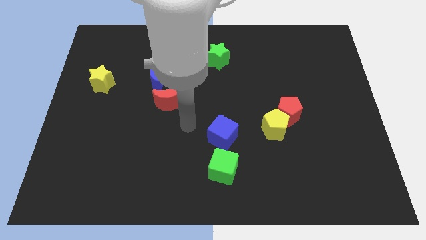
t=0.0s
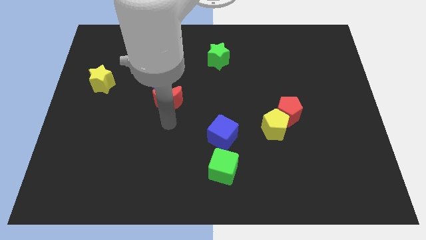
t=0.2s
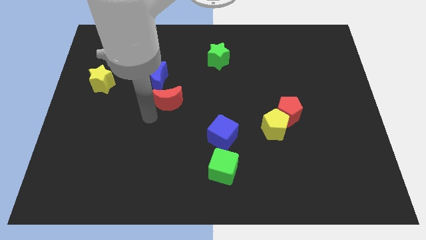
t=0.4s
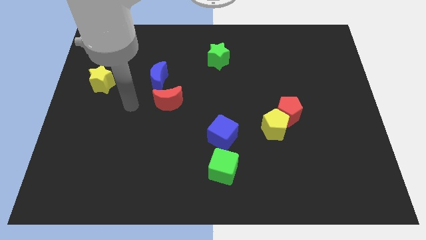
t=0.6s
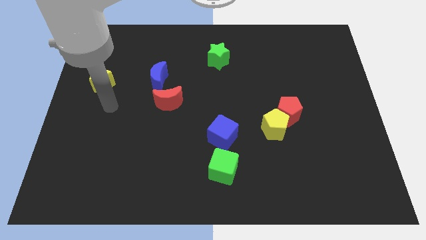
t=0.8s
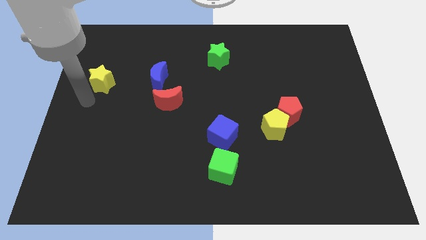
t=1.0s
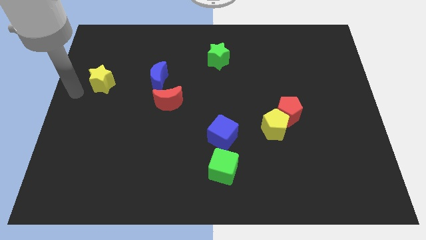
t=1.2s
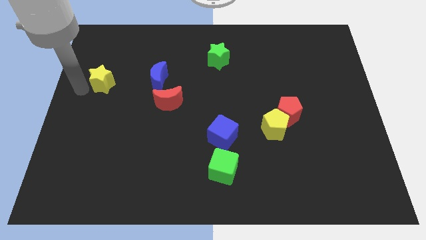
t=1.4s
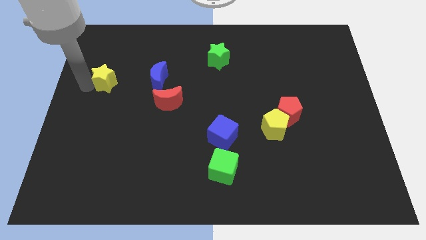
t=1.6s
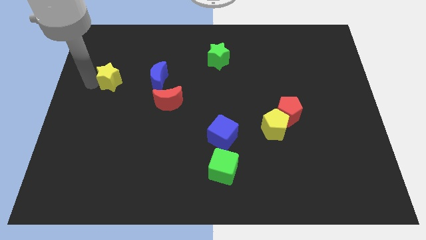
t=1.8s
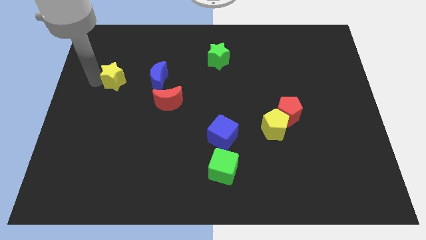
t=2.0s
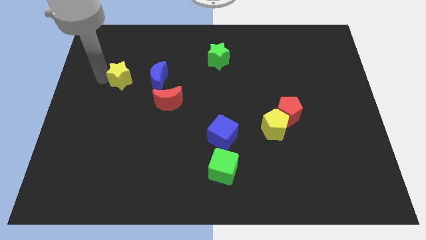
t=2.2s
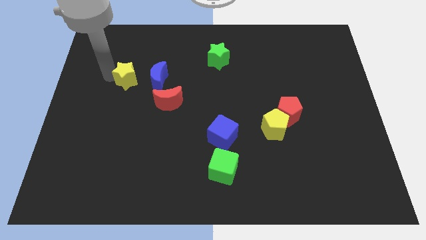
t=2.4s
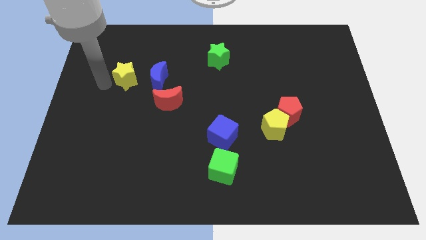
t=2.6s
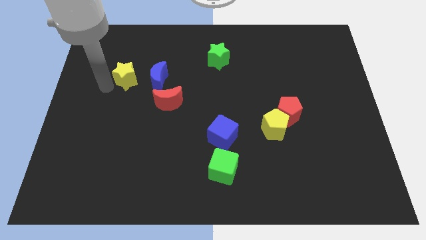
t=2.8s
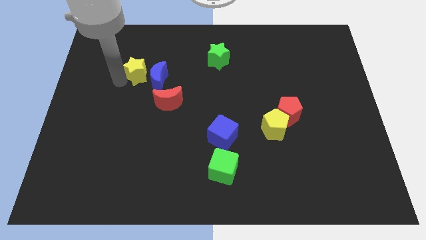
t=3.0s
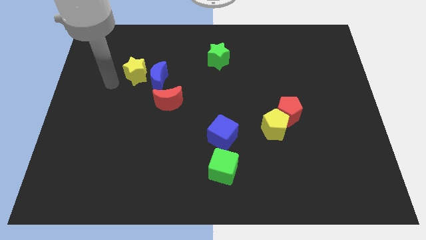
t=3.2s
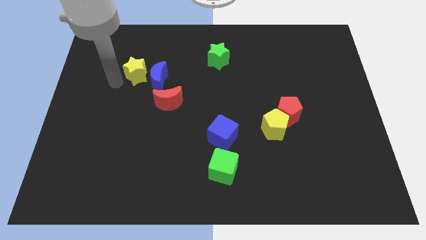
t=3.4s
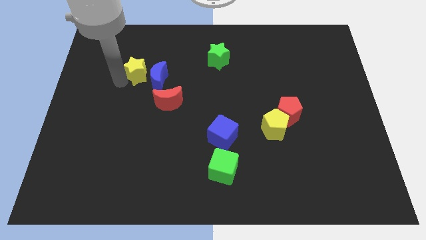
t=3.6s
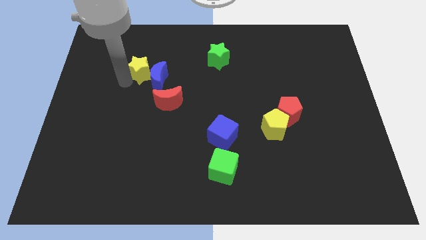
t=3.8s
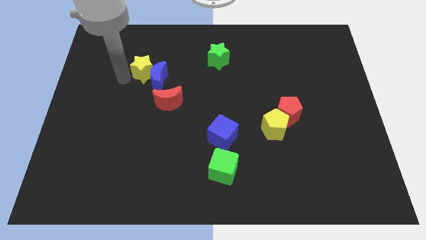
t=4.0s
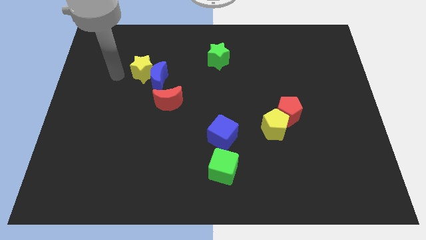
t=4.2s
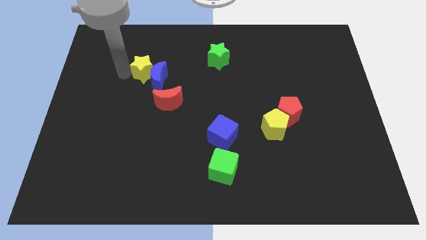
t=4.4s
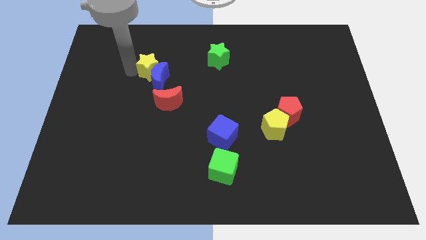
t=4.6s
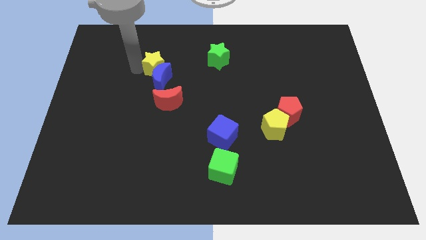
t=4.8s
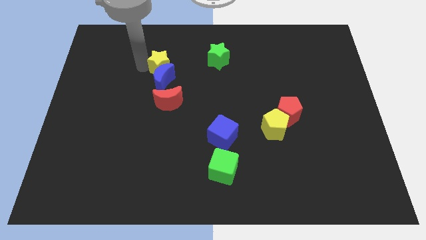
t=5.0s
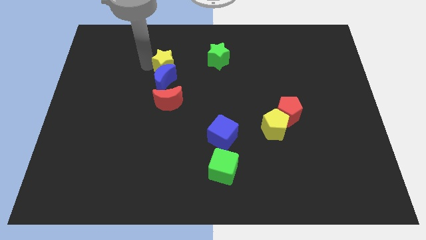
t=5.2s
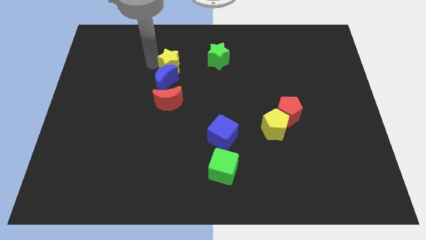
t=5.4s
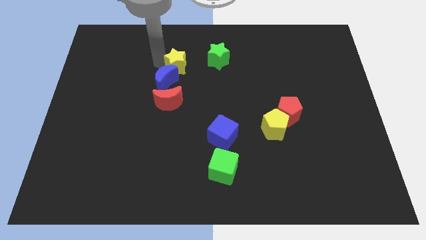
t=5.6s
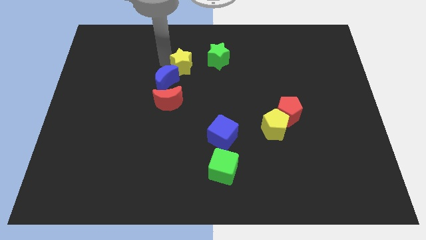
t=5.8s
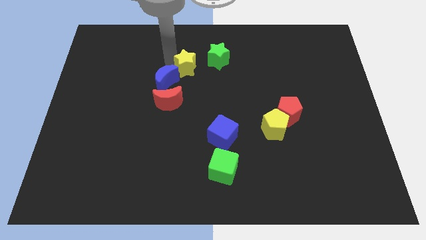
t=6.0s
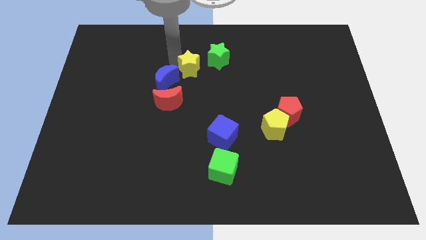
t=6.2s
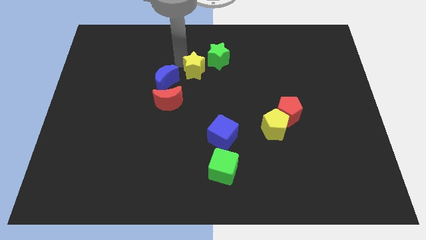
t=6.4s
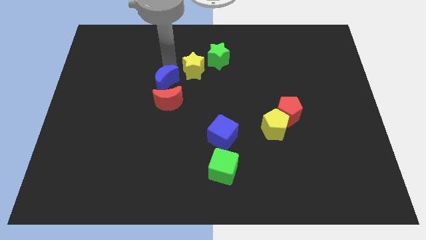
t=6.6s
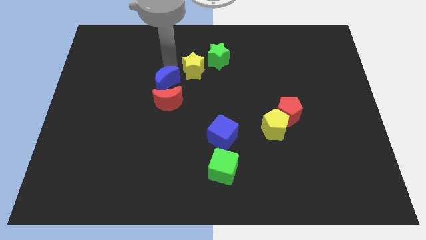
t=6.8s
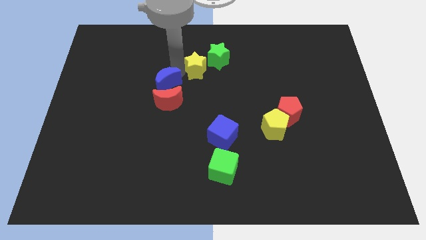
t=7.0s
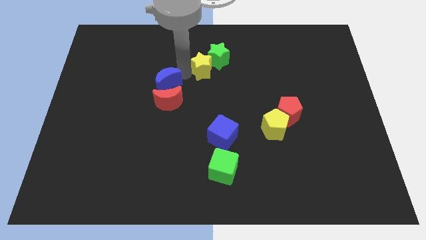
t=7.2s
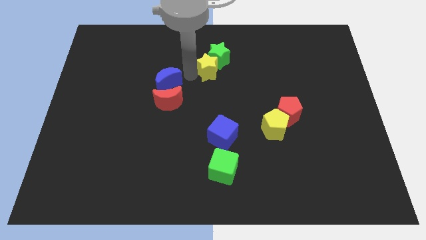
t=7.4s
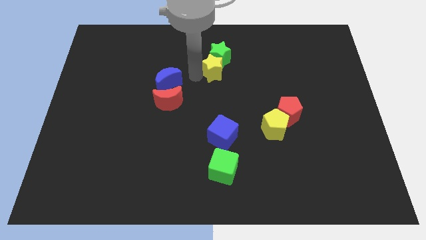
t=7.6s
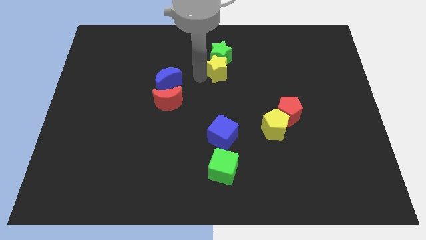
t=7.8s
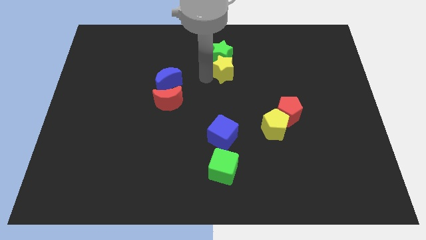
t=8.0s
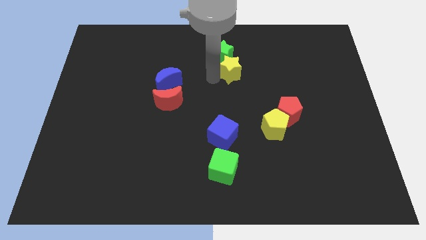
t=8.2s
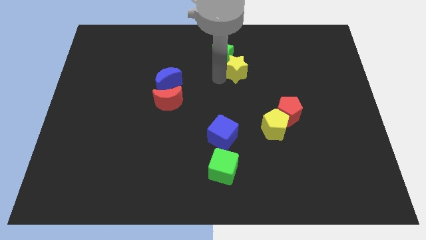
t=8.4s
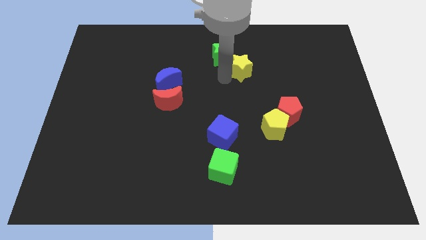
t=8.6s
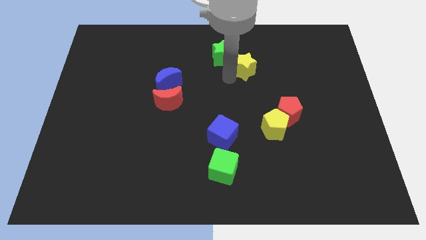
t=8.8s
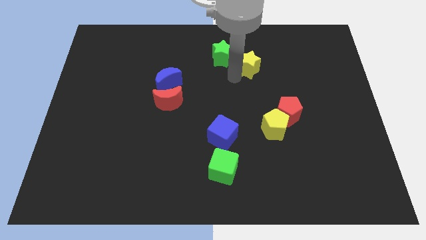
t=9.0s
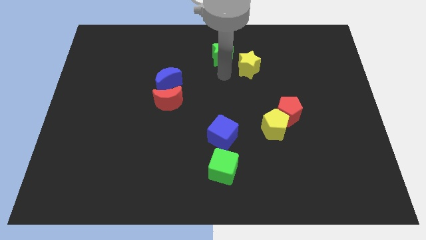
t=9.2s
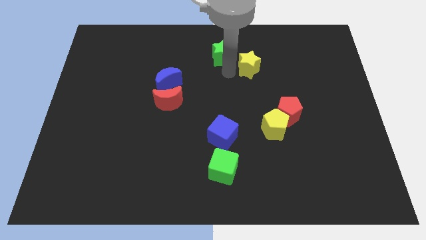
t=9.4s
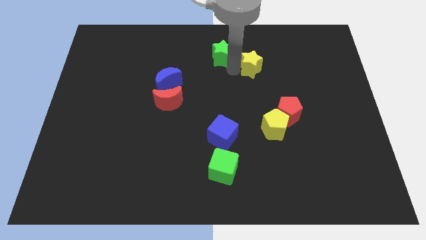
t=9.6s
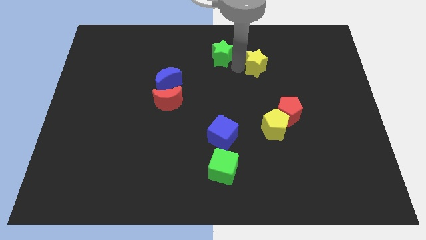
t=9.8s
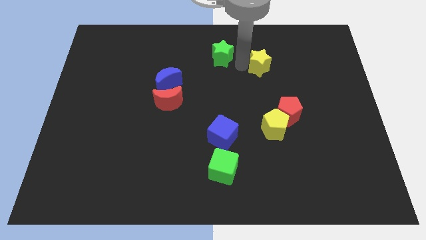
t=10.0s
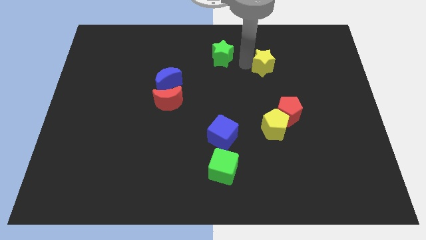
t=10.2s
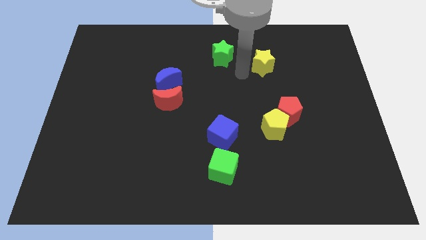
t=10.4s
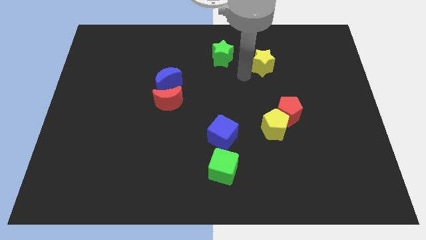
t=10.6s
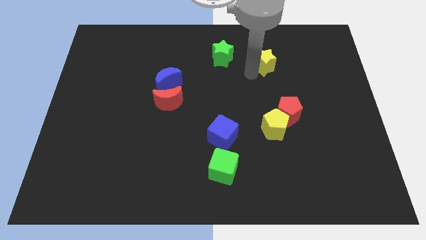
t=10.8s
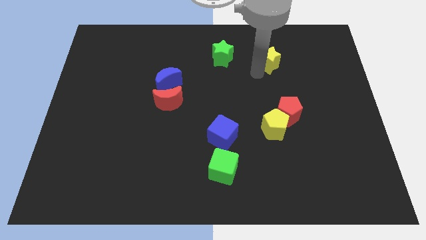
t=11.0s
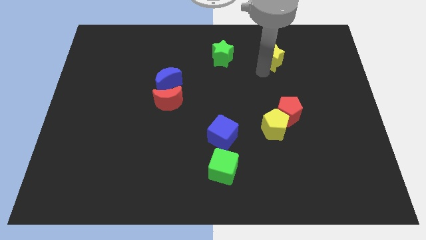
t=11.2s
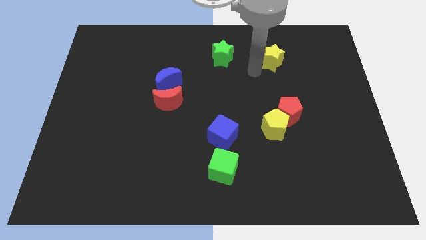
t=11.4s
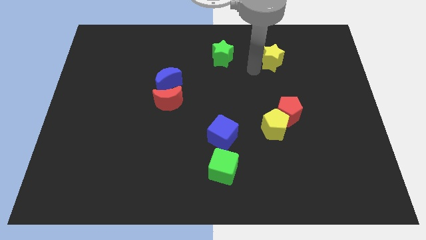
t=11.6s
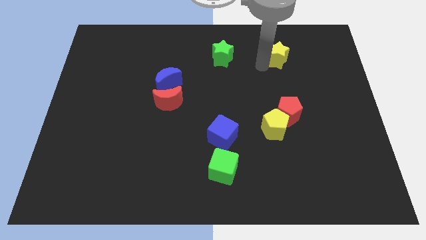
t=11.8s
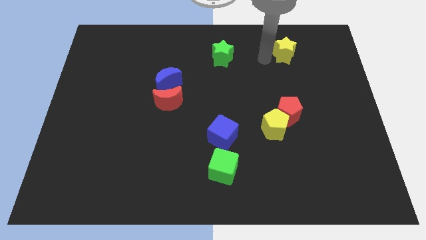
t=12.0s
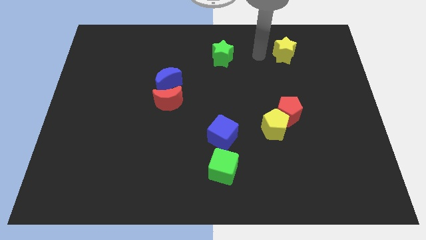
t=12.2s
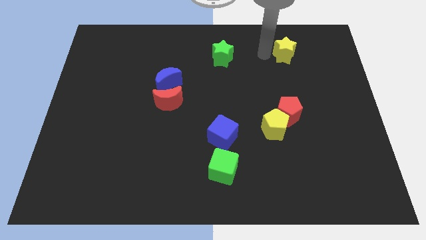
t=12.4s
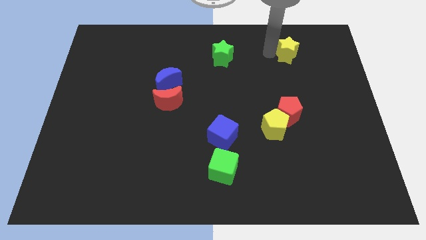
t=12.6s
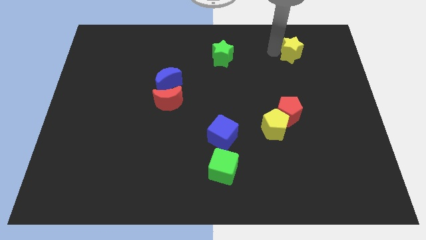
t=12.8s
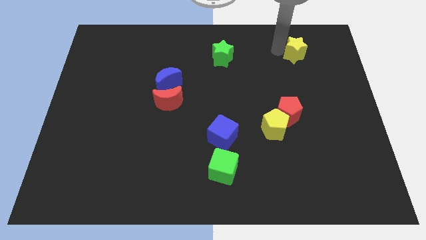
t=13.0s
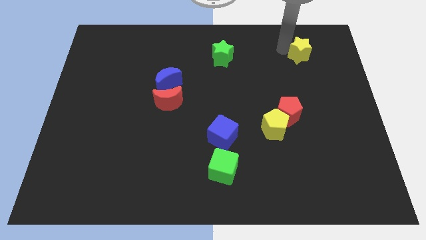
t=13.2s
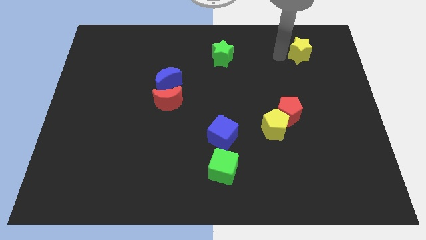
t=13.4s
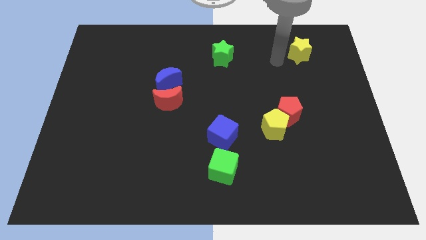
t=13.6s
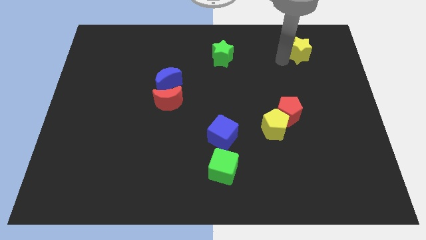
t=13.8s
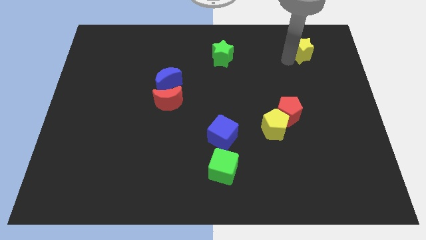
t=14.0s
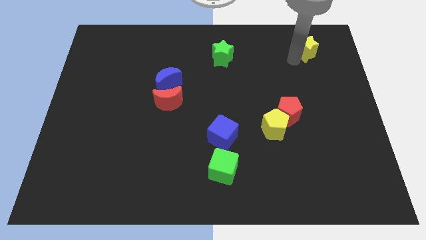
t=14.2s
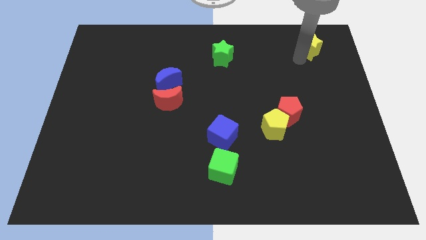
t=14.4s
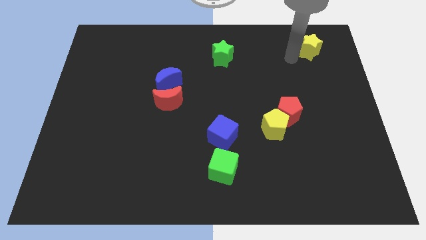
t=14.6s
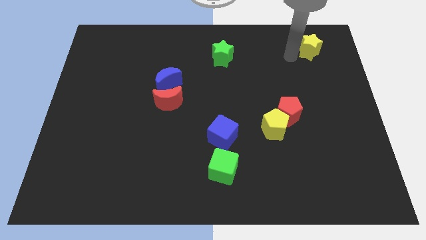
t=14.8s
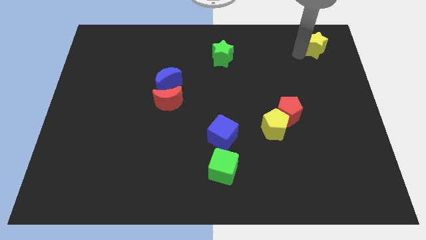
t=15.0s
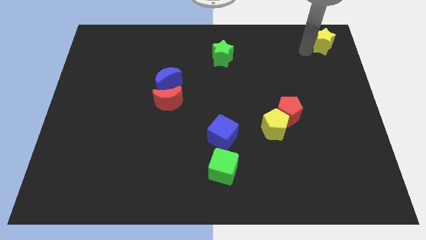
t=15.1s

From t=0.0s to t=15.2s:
push the yellow star to the top right of the board
